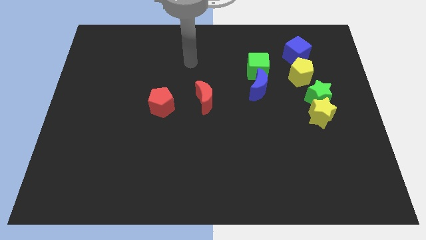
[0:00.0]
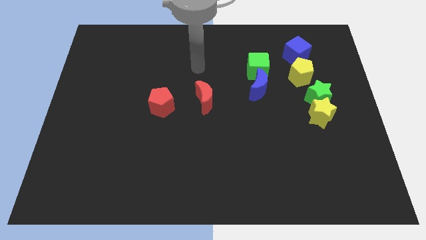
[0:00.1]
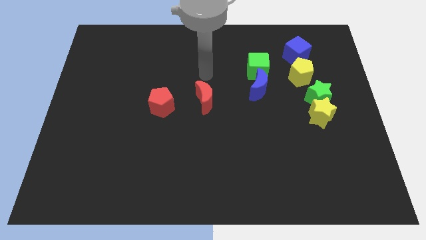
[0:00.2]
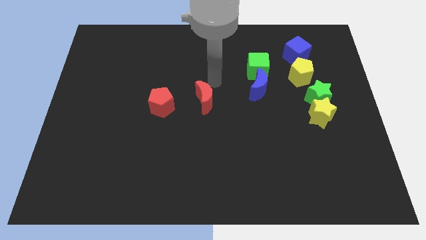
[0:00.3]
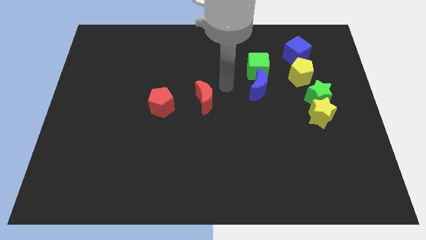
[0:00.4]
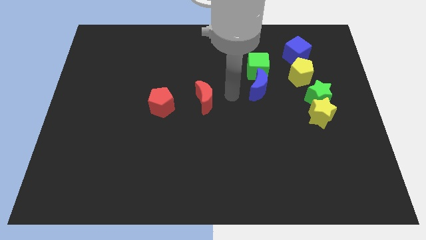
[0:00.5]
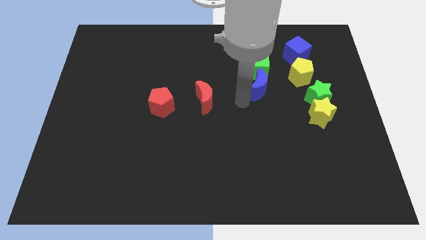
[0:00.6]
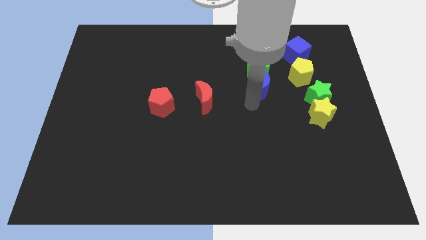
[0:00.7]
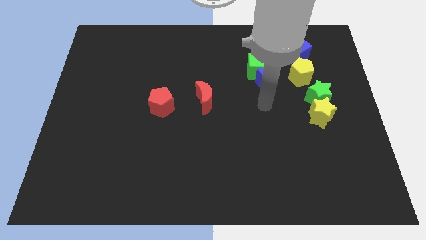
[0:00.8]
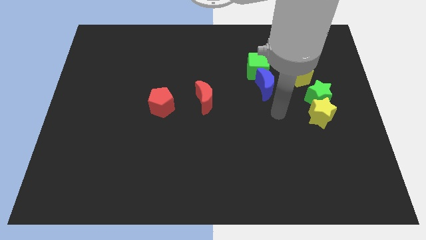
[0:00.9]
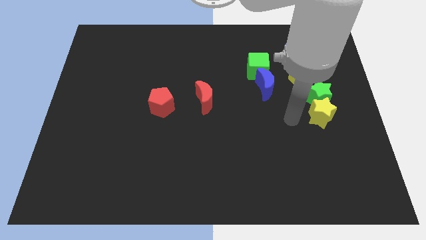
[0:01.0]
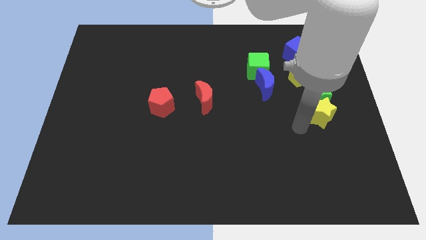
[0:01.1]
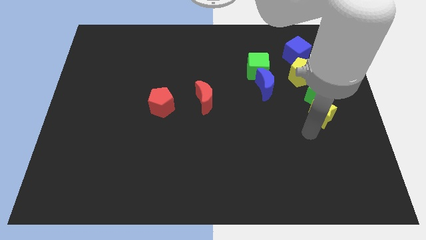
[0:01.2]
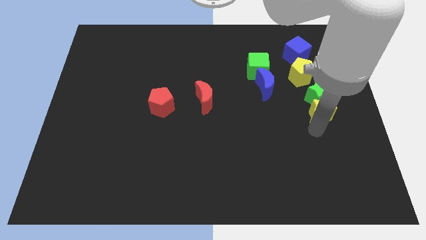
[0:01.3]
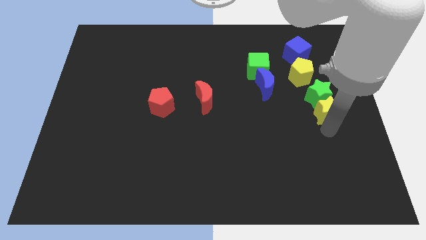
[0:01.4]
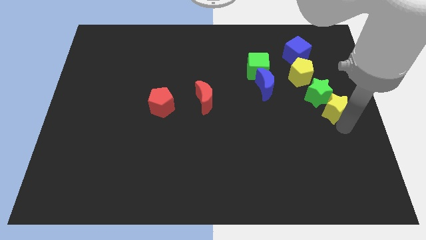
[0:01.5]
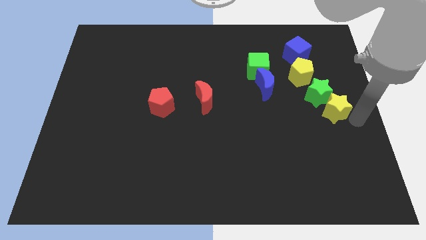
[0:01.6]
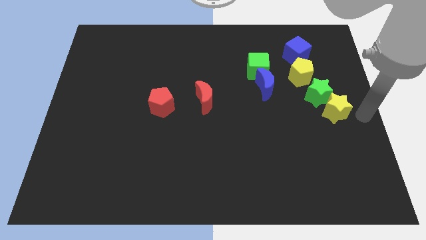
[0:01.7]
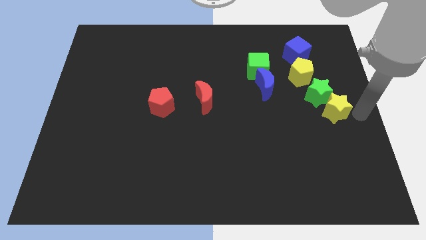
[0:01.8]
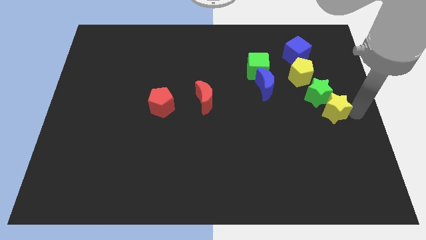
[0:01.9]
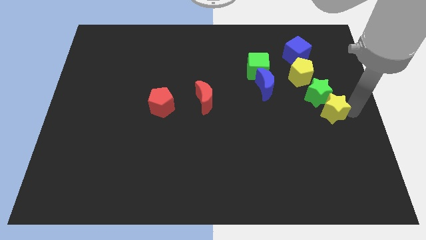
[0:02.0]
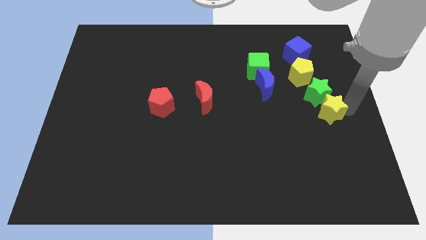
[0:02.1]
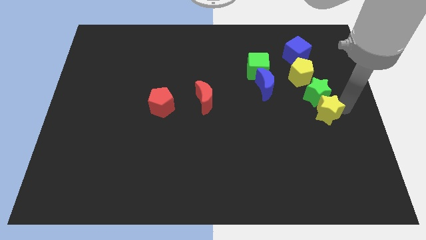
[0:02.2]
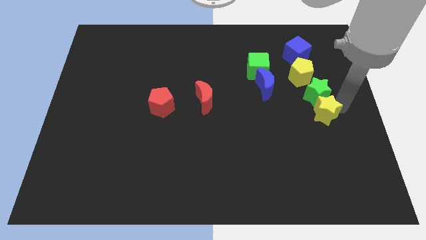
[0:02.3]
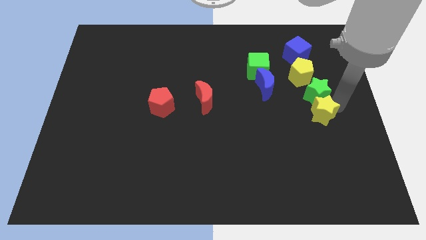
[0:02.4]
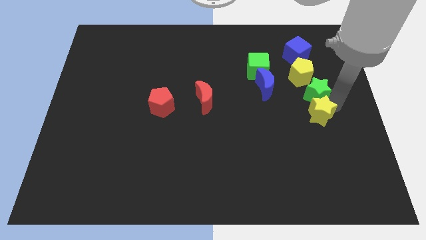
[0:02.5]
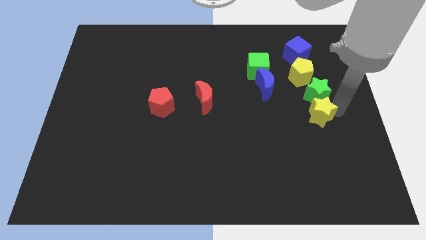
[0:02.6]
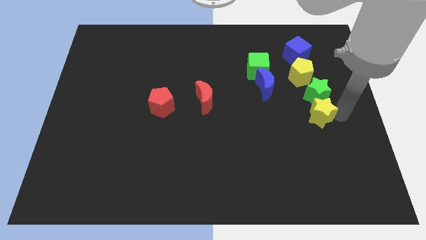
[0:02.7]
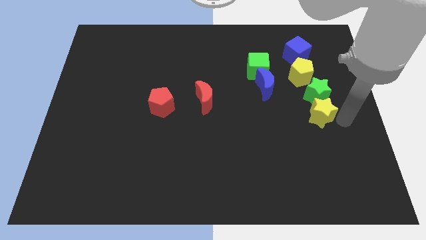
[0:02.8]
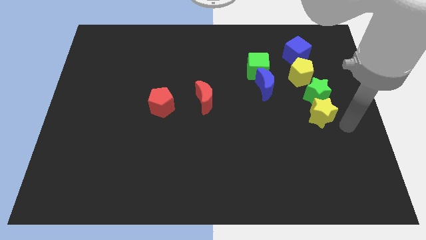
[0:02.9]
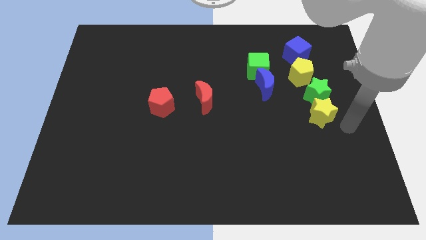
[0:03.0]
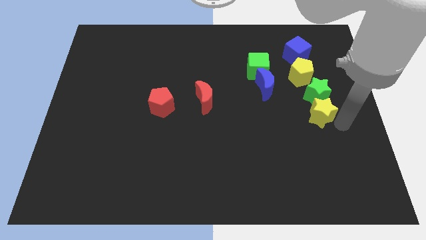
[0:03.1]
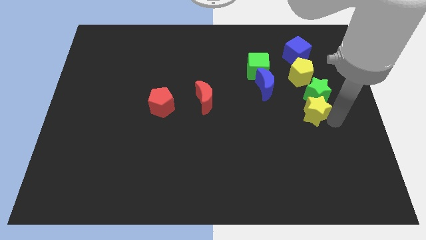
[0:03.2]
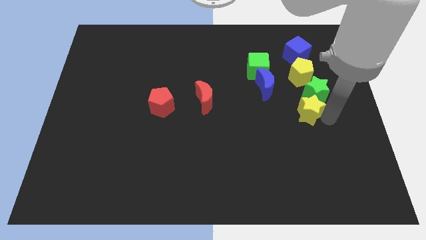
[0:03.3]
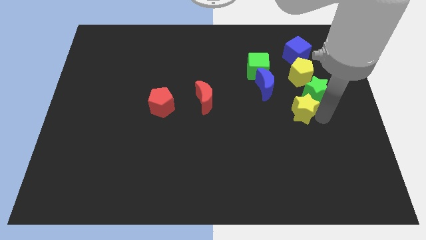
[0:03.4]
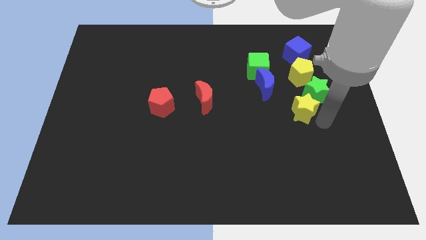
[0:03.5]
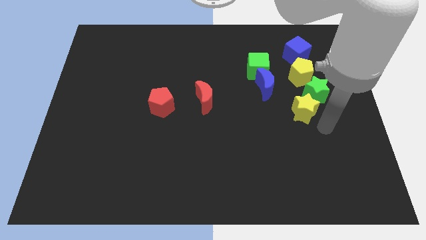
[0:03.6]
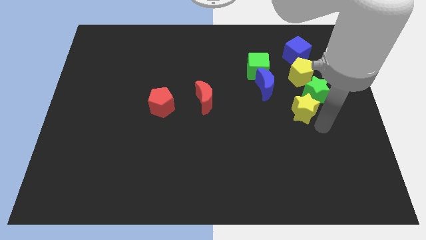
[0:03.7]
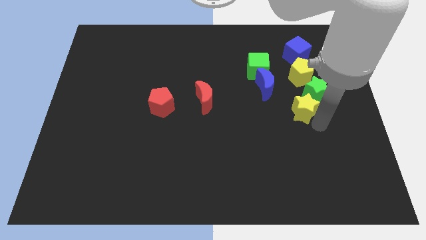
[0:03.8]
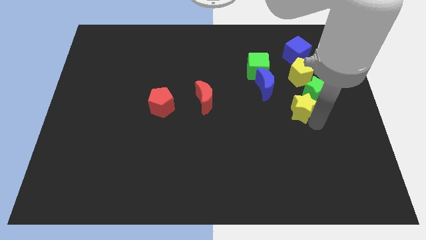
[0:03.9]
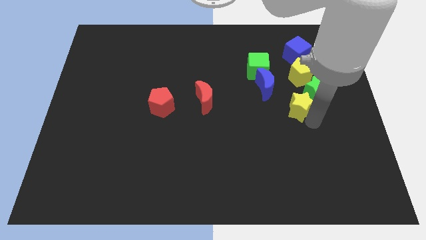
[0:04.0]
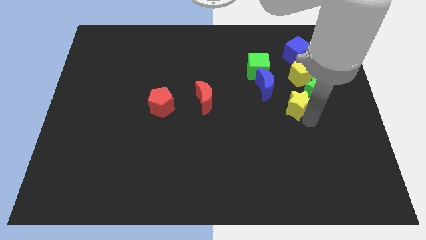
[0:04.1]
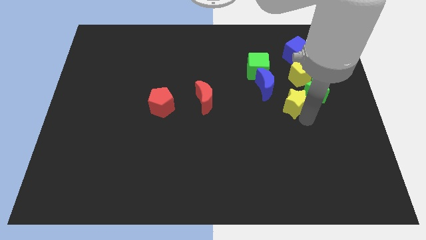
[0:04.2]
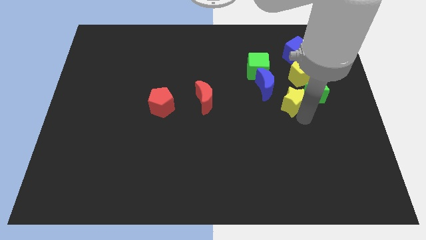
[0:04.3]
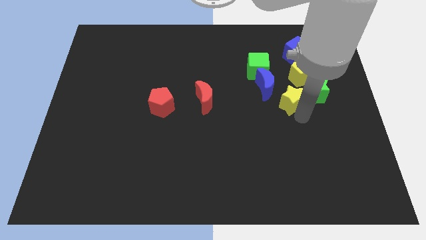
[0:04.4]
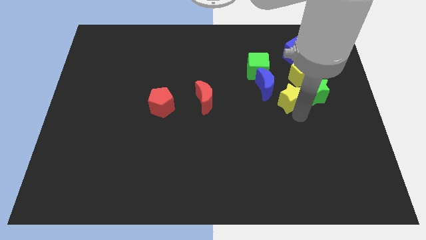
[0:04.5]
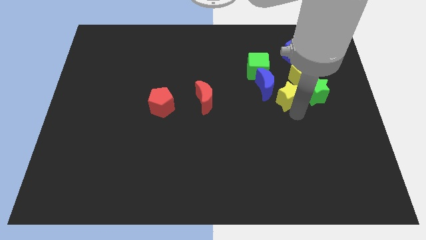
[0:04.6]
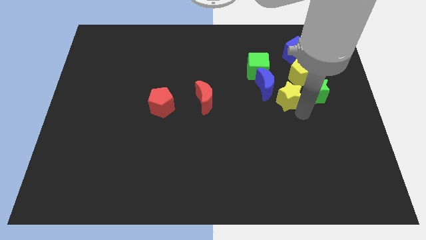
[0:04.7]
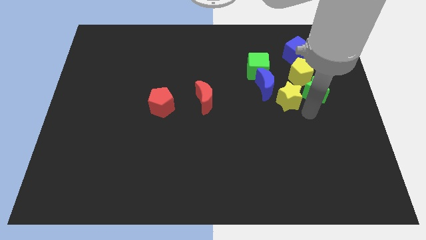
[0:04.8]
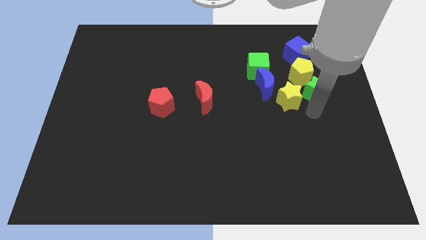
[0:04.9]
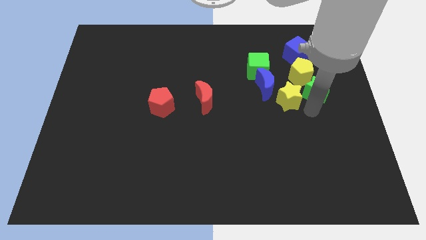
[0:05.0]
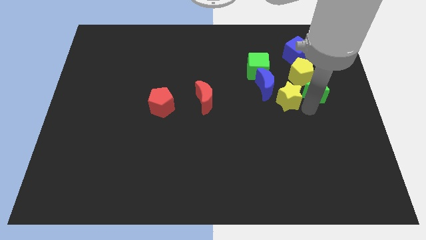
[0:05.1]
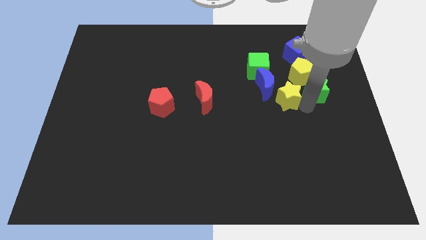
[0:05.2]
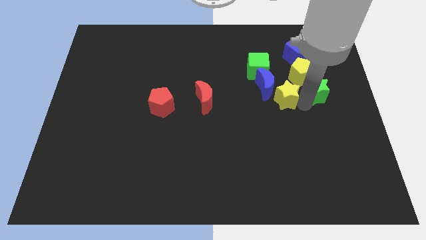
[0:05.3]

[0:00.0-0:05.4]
put the yellow star next to the blue moon

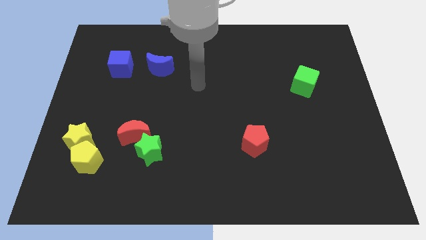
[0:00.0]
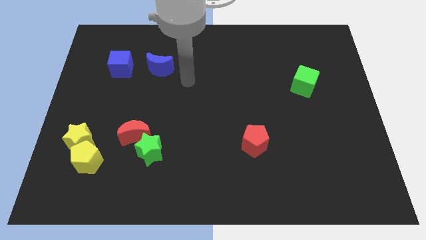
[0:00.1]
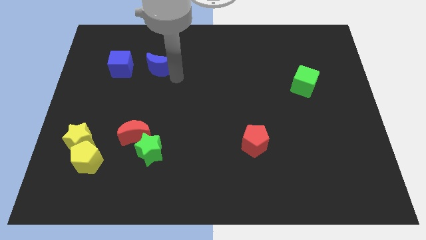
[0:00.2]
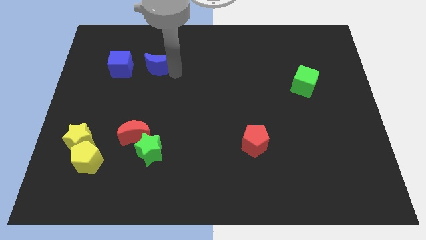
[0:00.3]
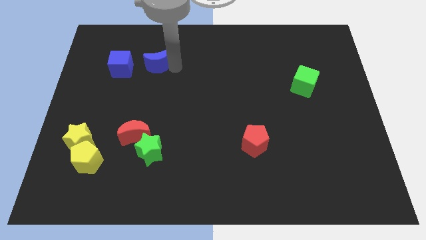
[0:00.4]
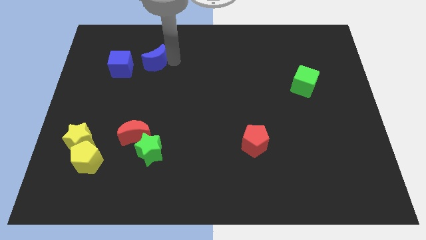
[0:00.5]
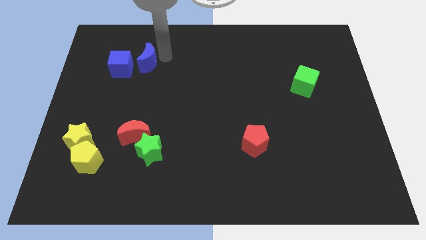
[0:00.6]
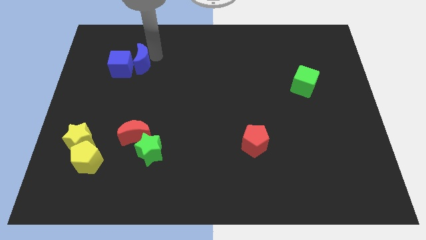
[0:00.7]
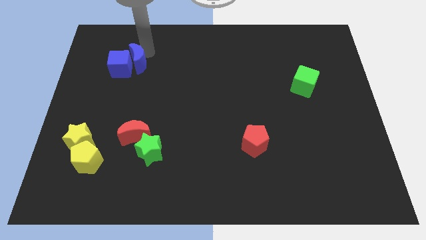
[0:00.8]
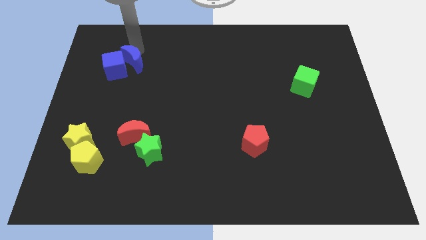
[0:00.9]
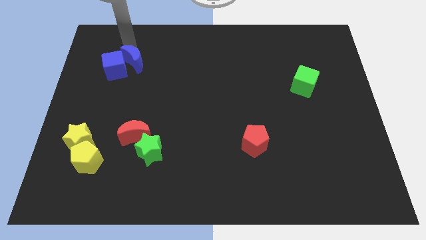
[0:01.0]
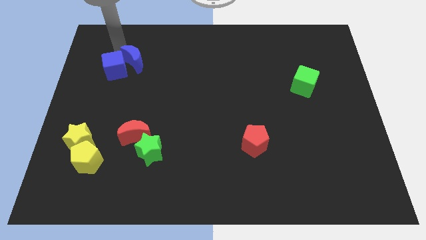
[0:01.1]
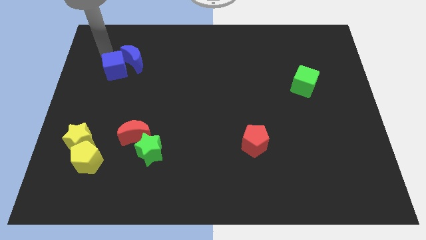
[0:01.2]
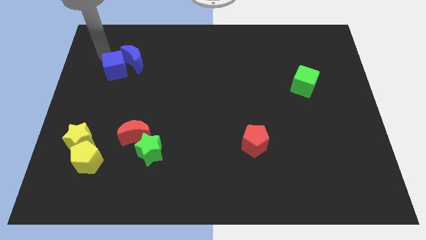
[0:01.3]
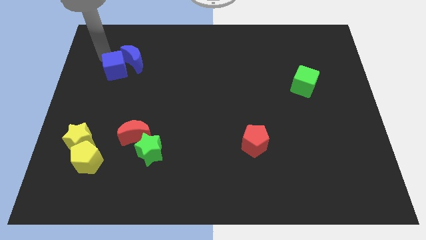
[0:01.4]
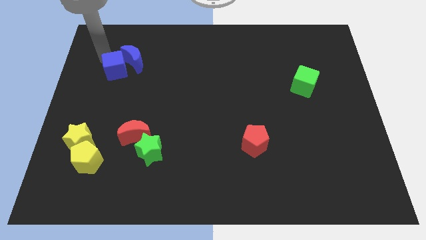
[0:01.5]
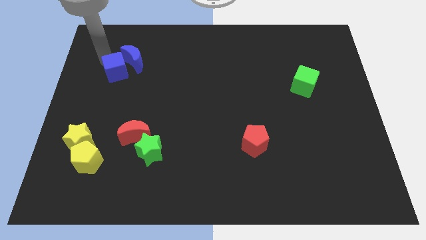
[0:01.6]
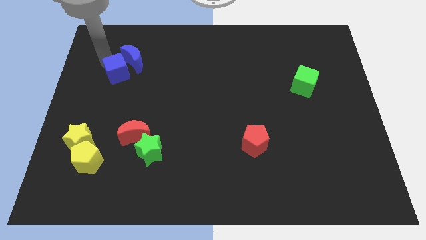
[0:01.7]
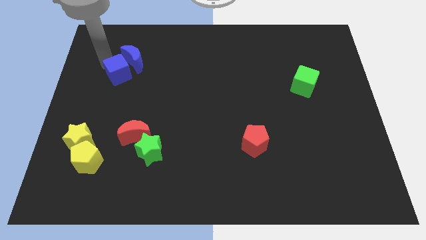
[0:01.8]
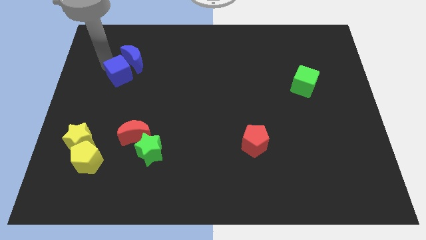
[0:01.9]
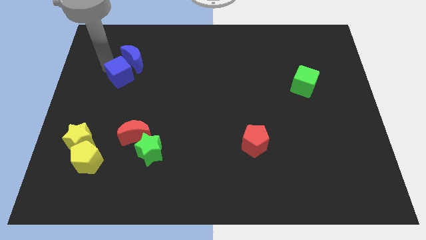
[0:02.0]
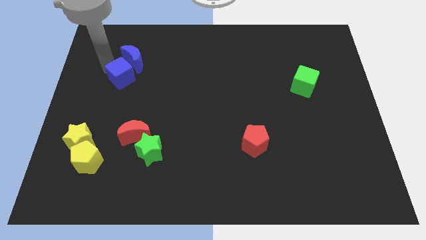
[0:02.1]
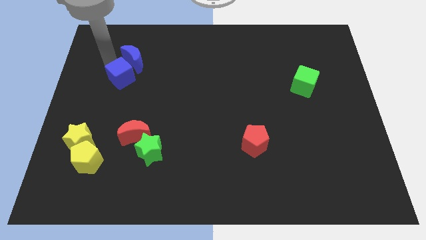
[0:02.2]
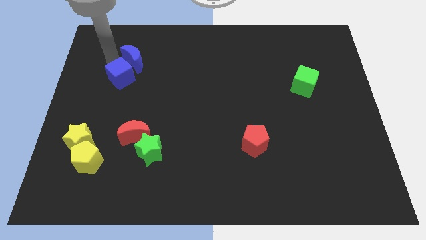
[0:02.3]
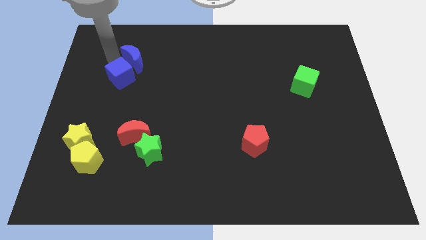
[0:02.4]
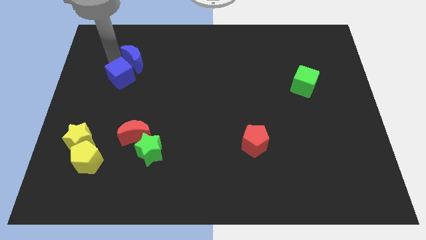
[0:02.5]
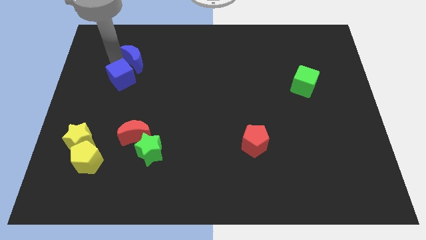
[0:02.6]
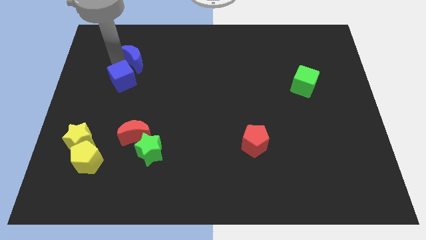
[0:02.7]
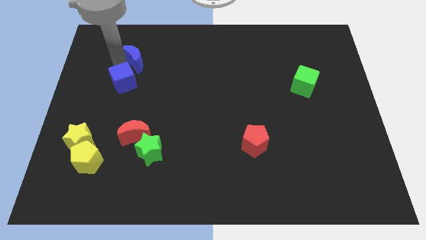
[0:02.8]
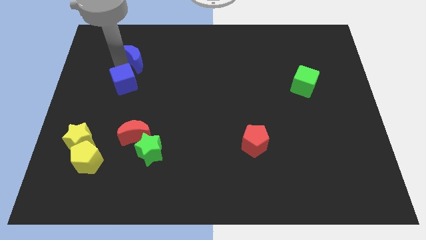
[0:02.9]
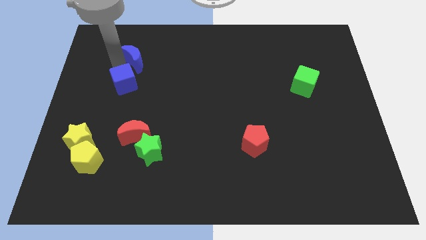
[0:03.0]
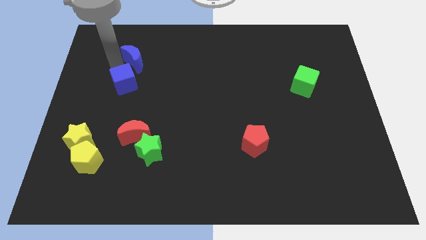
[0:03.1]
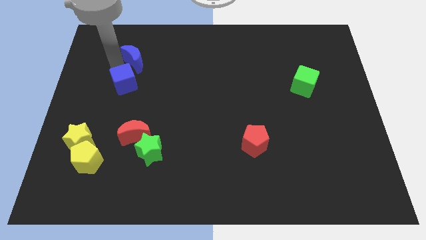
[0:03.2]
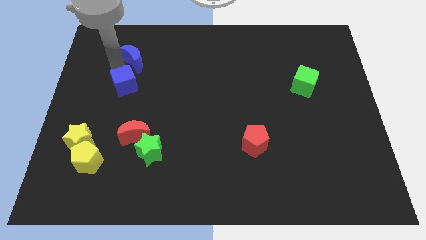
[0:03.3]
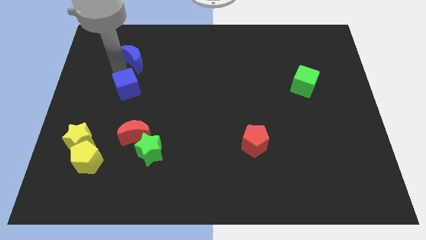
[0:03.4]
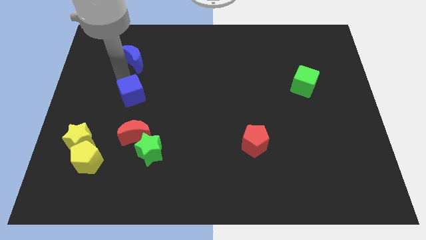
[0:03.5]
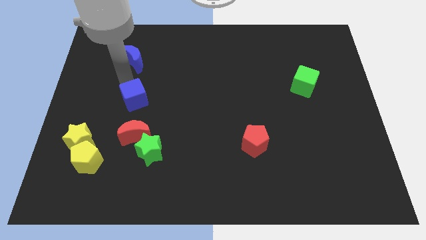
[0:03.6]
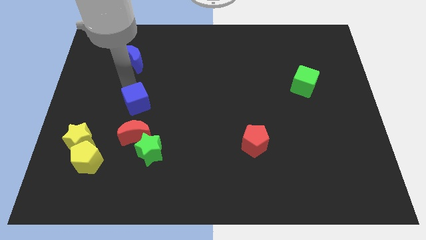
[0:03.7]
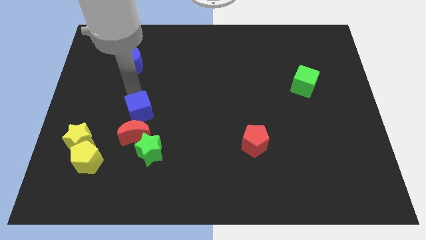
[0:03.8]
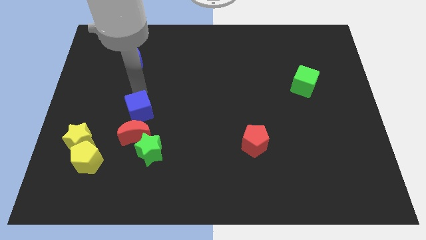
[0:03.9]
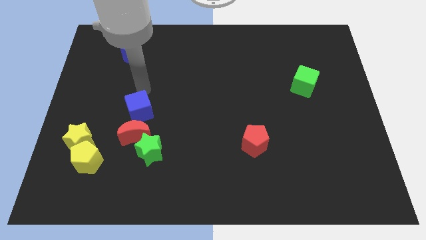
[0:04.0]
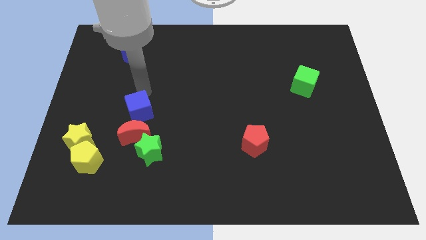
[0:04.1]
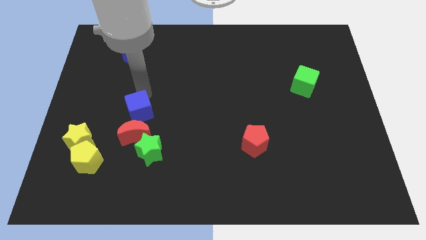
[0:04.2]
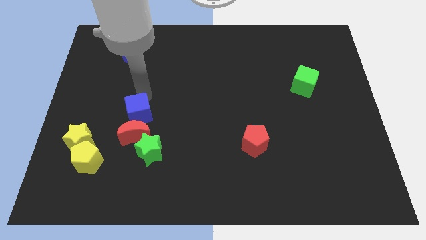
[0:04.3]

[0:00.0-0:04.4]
push the blue cube close to the red moon
